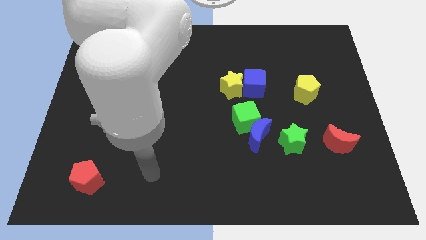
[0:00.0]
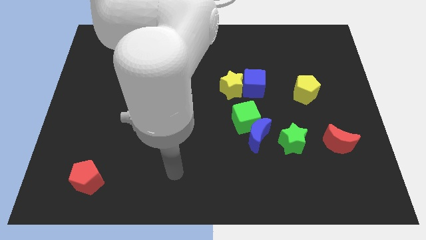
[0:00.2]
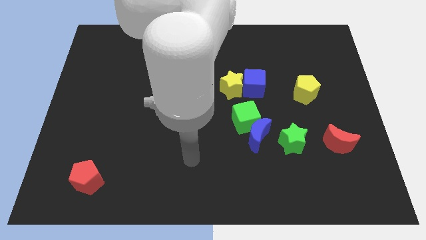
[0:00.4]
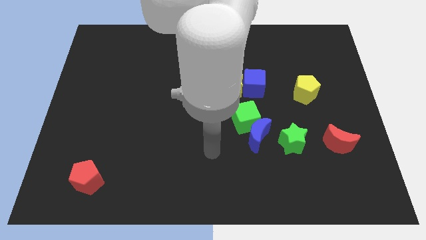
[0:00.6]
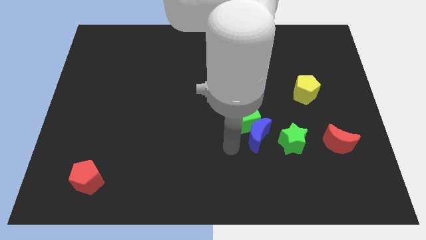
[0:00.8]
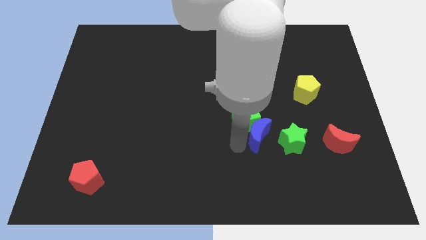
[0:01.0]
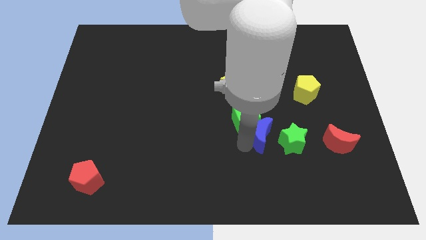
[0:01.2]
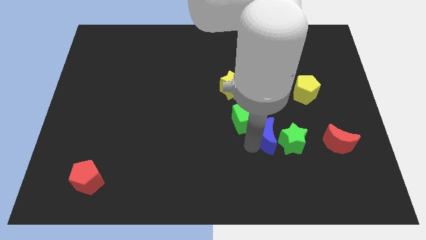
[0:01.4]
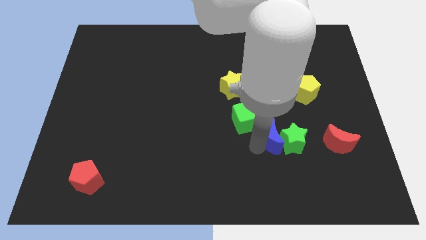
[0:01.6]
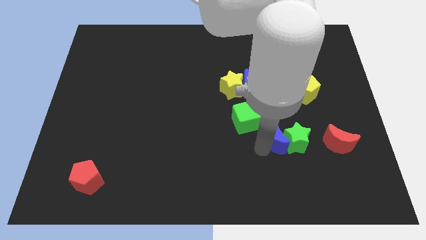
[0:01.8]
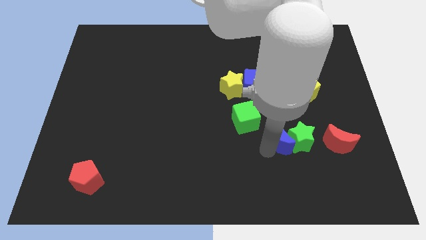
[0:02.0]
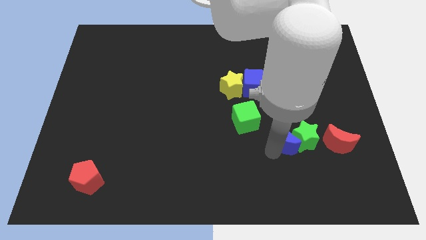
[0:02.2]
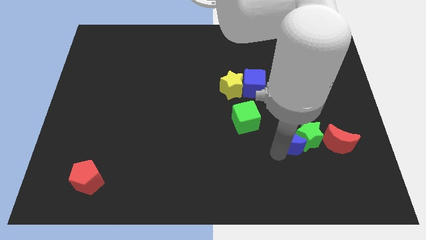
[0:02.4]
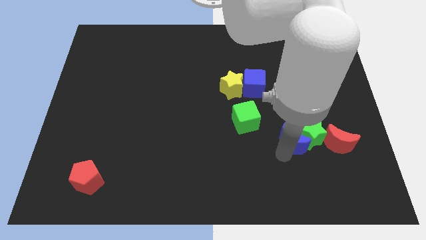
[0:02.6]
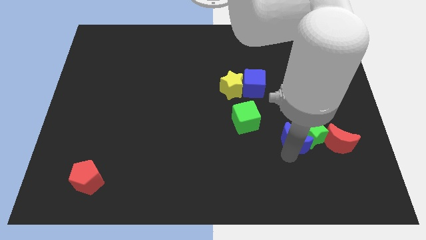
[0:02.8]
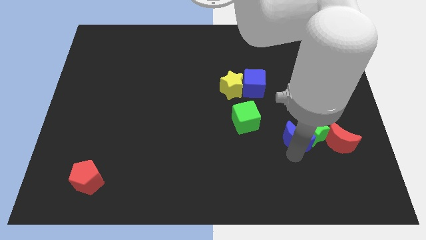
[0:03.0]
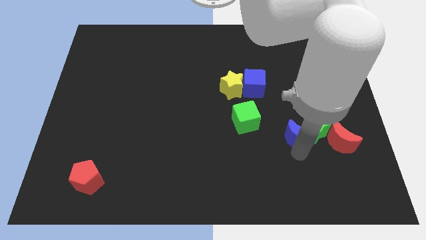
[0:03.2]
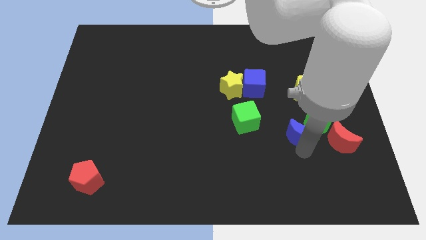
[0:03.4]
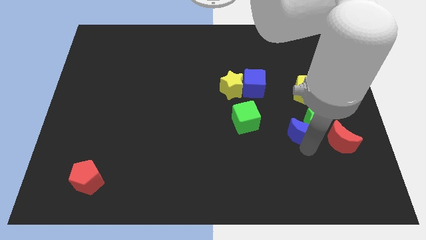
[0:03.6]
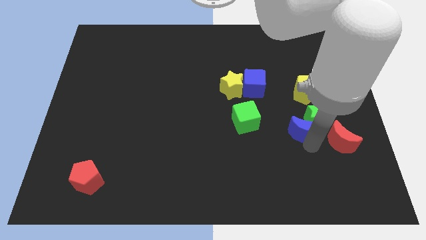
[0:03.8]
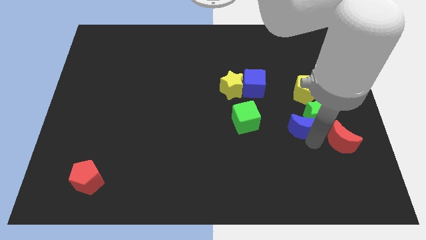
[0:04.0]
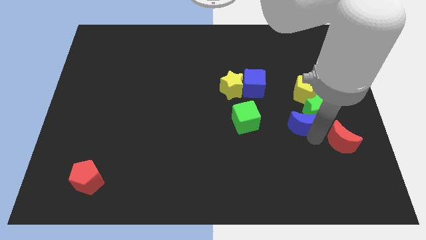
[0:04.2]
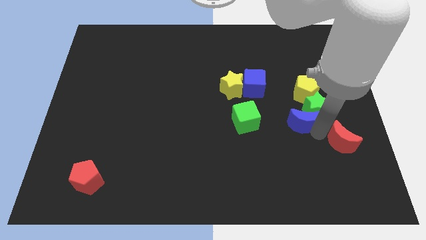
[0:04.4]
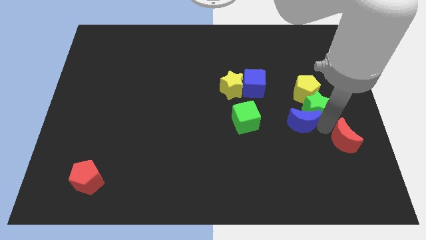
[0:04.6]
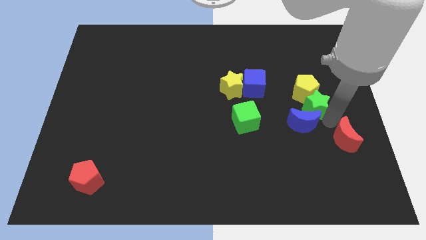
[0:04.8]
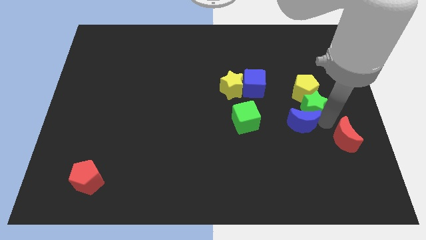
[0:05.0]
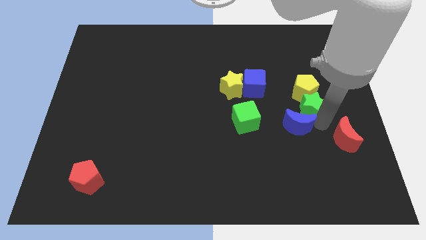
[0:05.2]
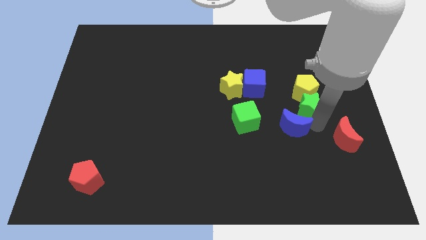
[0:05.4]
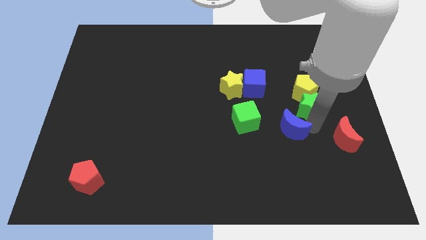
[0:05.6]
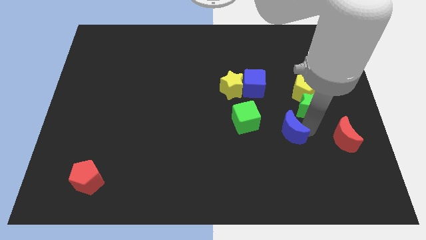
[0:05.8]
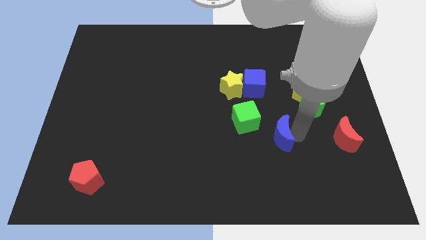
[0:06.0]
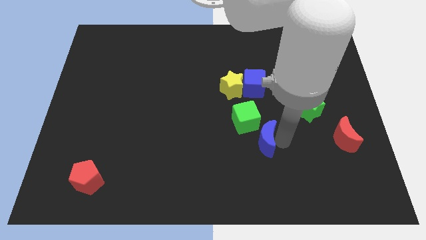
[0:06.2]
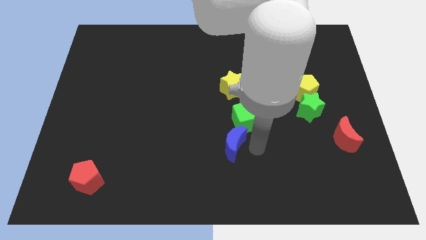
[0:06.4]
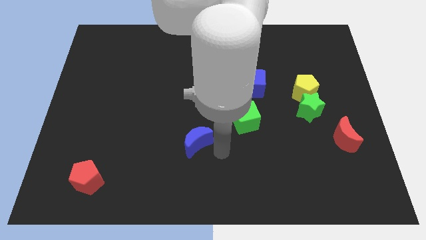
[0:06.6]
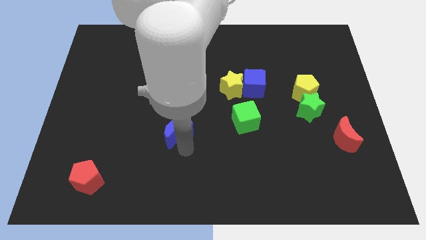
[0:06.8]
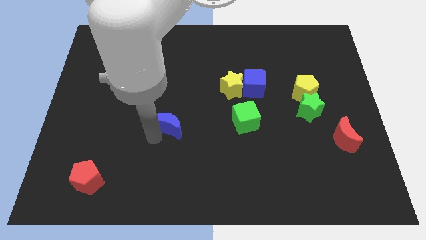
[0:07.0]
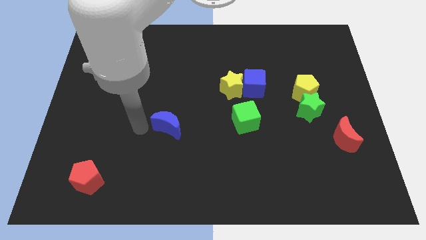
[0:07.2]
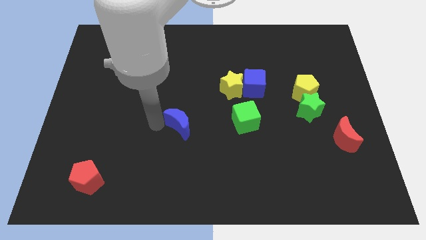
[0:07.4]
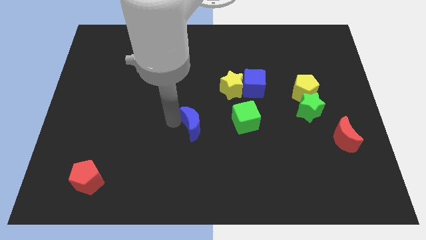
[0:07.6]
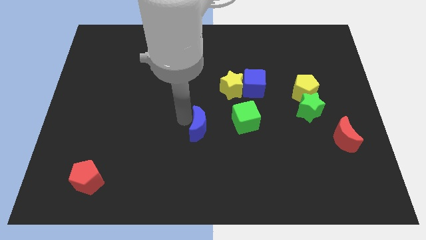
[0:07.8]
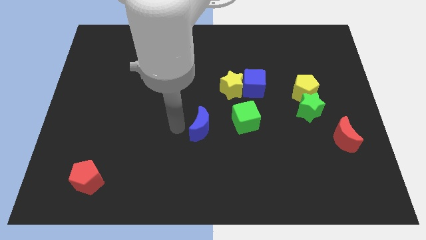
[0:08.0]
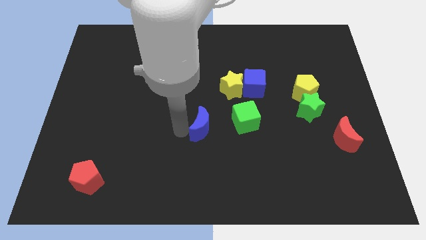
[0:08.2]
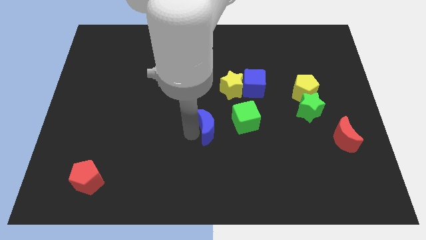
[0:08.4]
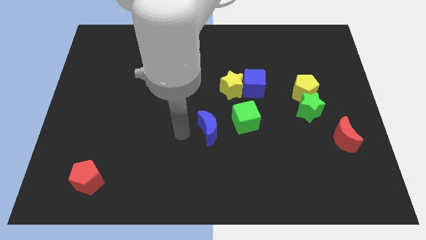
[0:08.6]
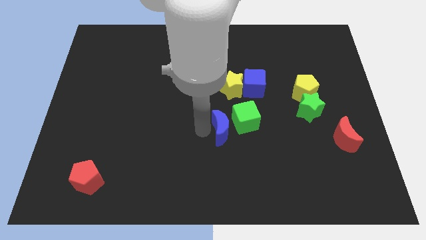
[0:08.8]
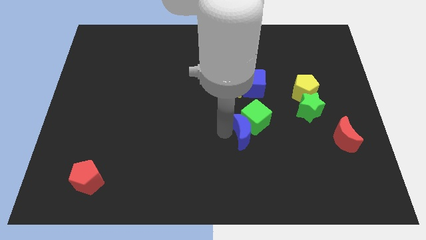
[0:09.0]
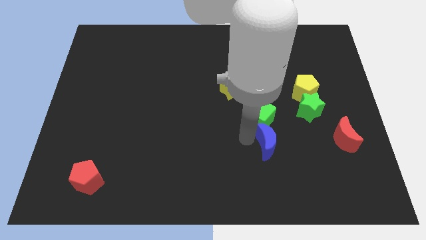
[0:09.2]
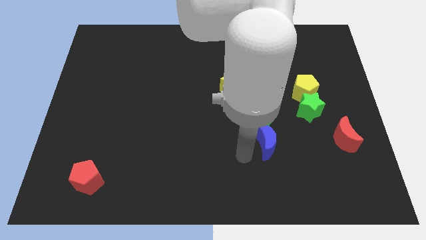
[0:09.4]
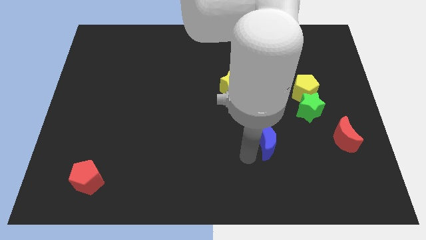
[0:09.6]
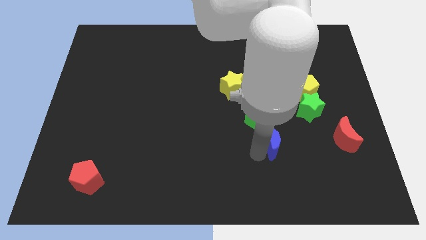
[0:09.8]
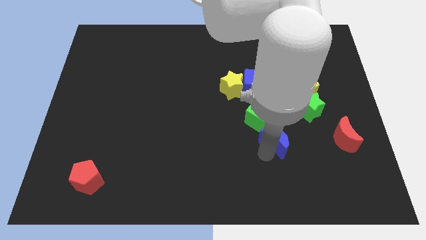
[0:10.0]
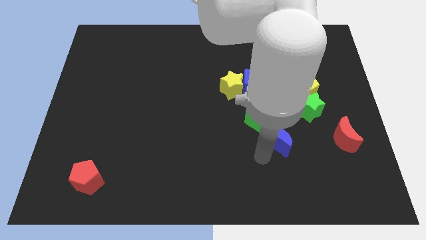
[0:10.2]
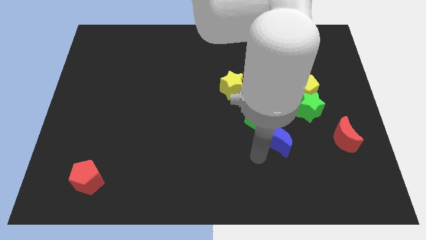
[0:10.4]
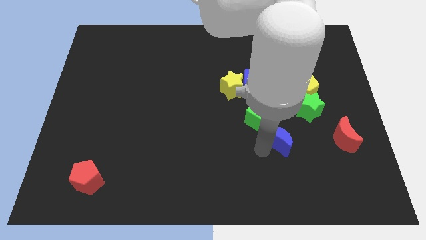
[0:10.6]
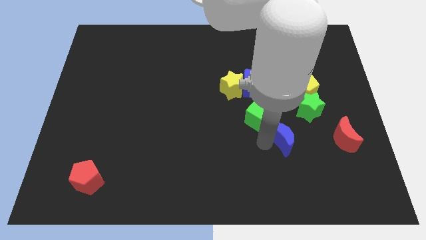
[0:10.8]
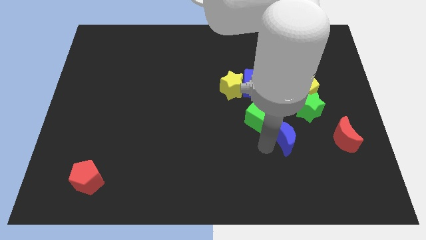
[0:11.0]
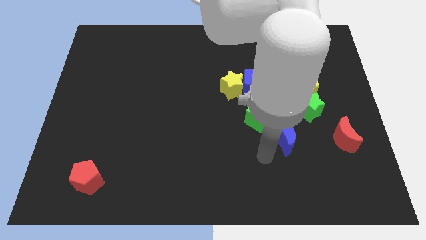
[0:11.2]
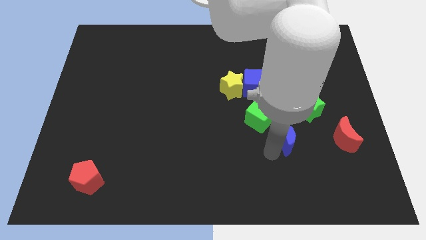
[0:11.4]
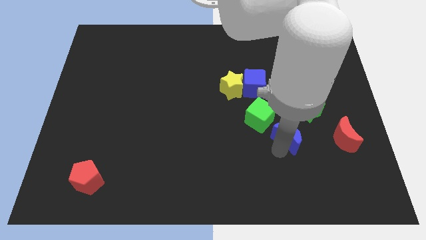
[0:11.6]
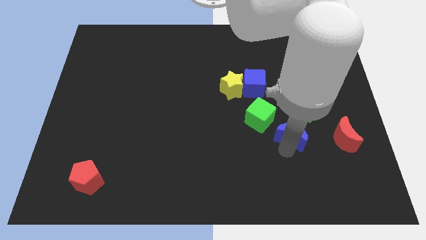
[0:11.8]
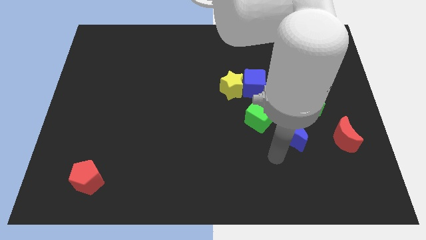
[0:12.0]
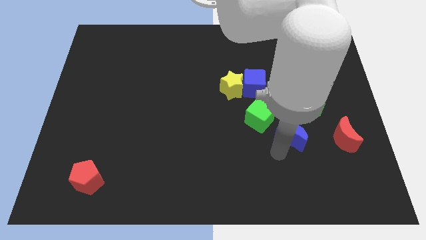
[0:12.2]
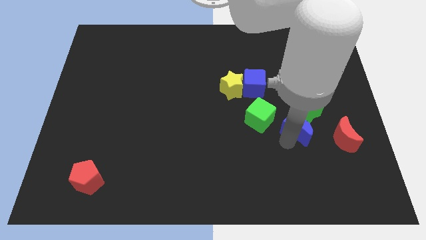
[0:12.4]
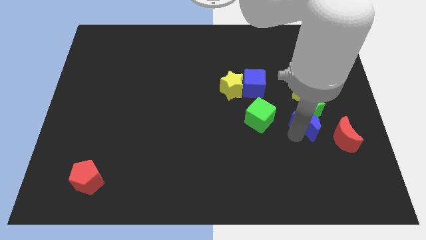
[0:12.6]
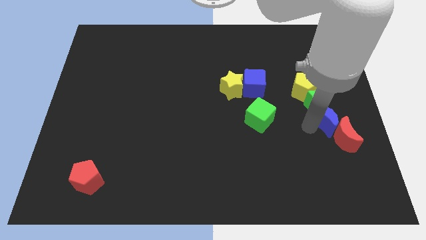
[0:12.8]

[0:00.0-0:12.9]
move the blue moon to the top of the red moon

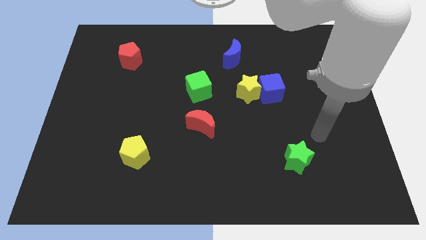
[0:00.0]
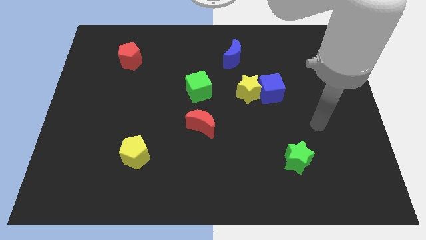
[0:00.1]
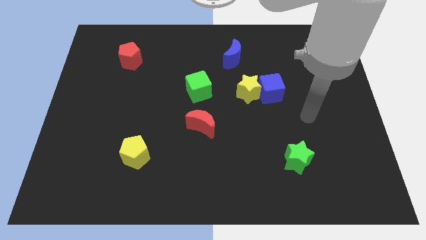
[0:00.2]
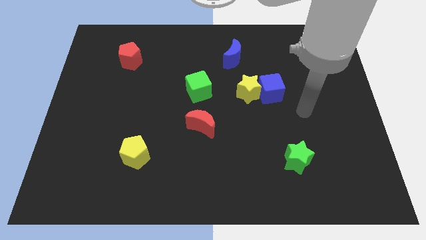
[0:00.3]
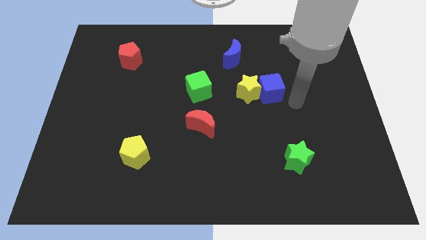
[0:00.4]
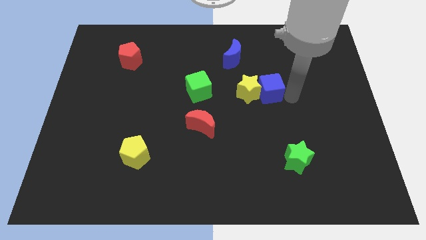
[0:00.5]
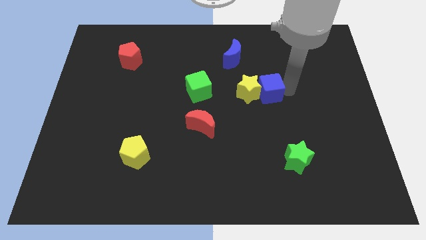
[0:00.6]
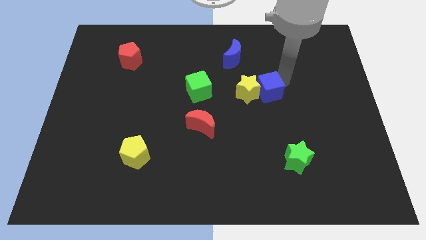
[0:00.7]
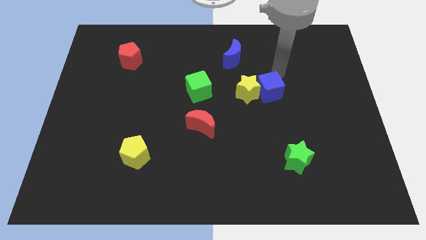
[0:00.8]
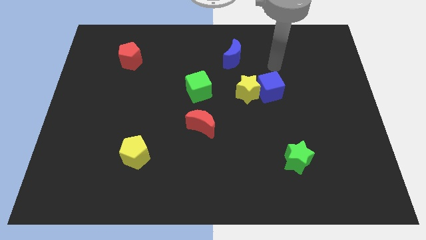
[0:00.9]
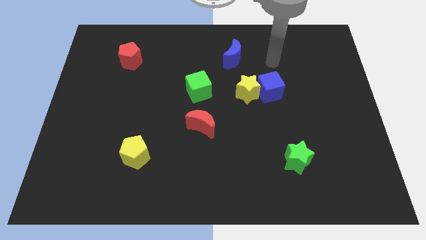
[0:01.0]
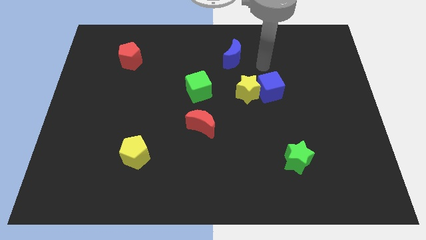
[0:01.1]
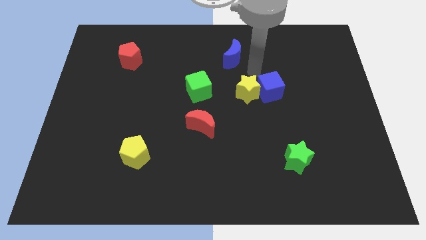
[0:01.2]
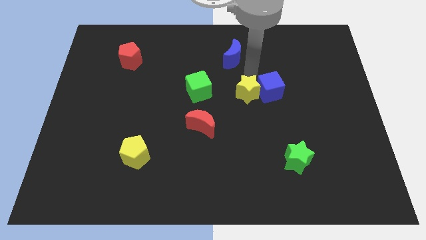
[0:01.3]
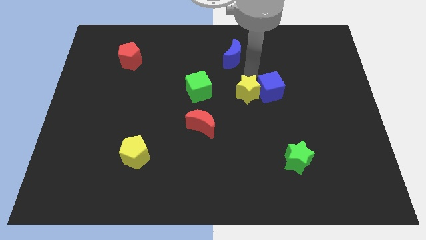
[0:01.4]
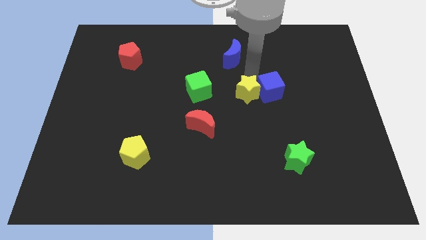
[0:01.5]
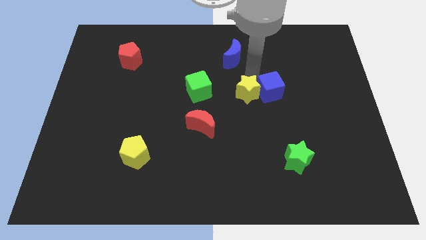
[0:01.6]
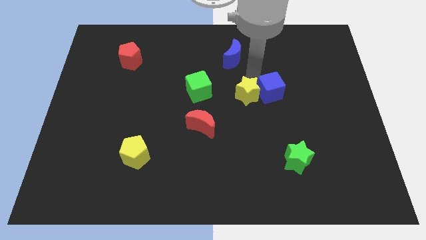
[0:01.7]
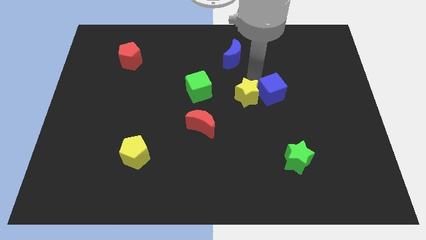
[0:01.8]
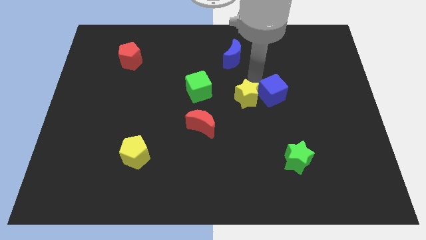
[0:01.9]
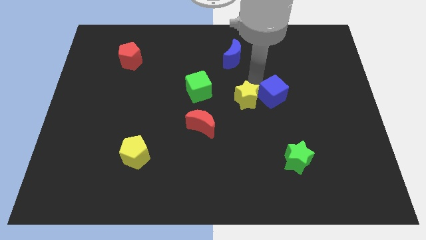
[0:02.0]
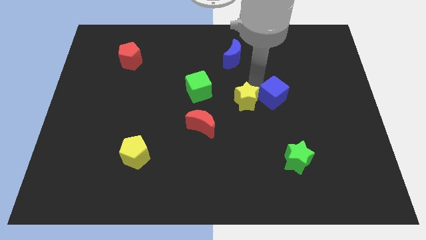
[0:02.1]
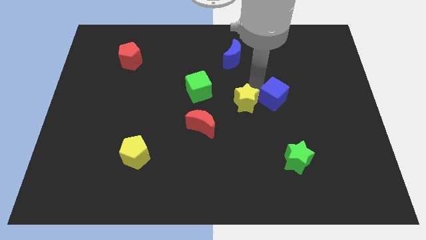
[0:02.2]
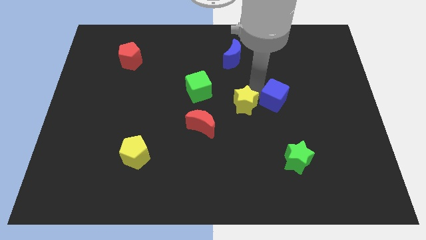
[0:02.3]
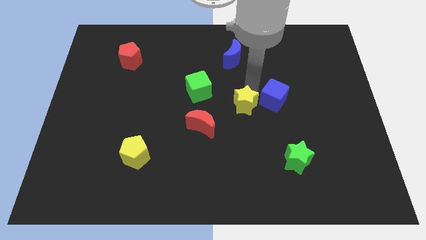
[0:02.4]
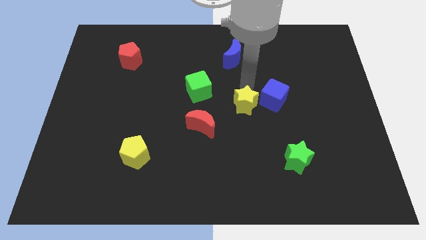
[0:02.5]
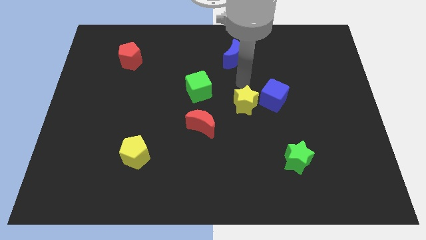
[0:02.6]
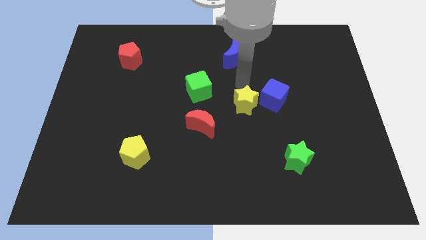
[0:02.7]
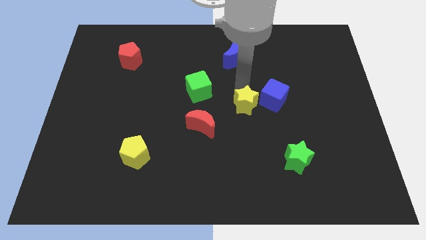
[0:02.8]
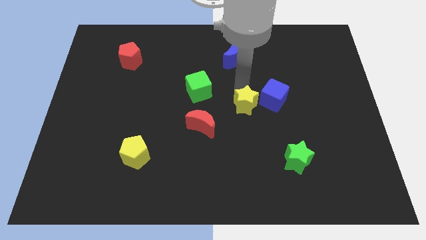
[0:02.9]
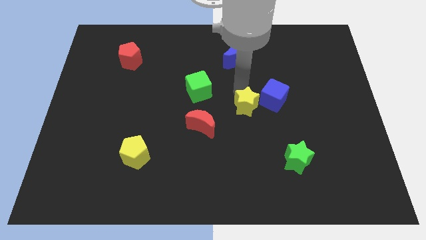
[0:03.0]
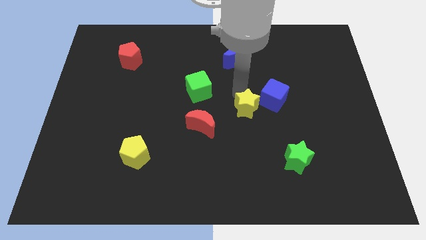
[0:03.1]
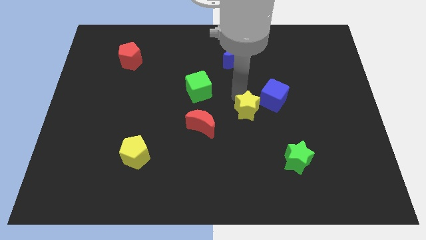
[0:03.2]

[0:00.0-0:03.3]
move the yellow star to the right side of the red moon
